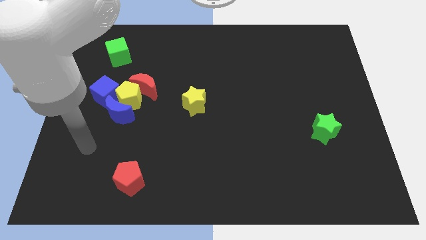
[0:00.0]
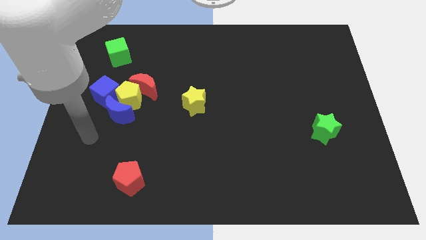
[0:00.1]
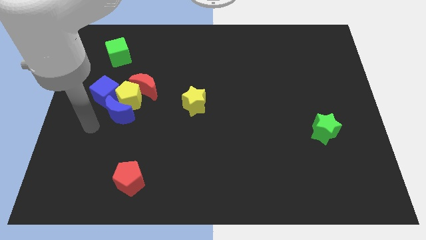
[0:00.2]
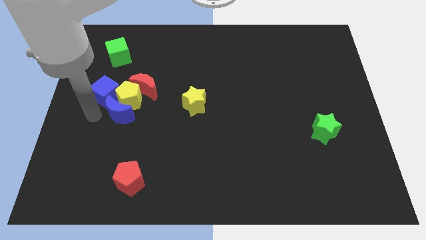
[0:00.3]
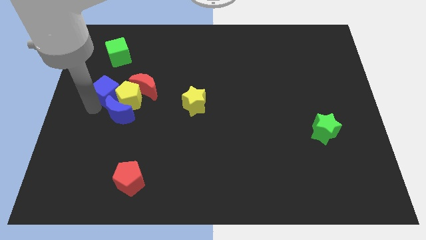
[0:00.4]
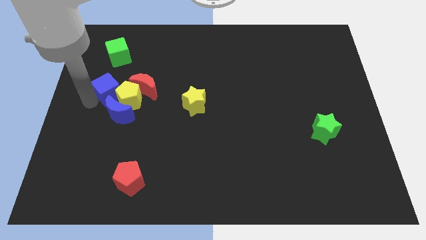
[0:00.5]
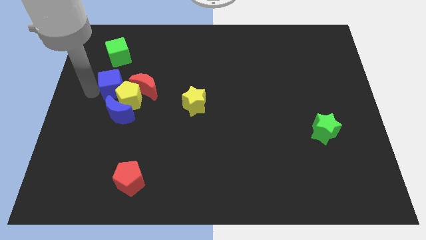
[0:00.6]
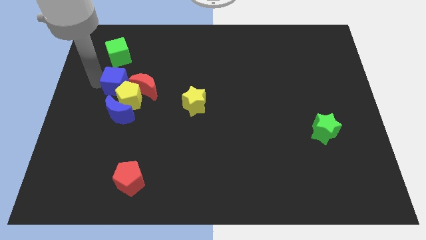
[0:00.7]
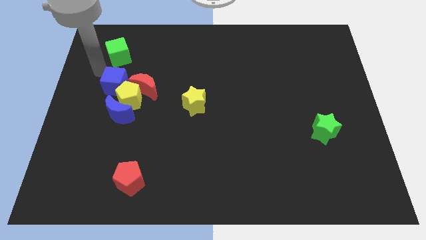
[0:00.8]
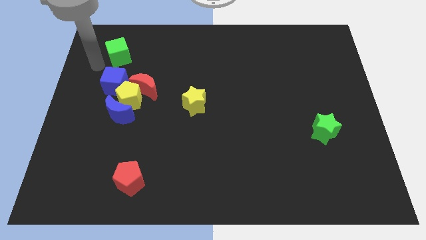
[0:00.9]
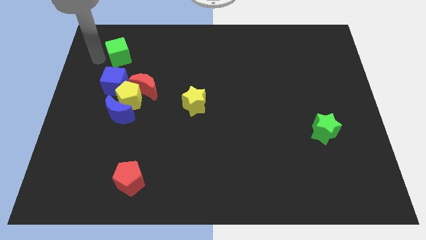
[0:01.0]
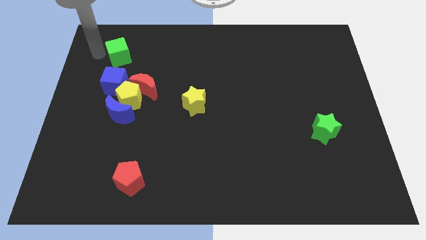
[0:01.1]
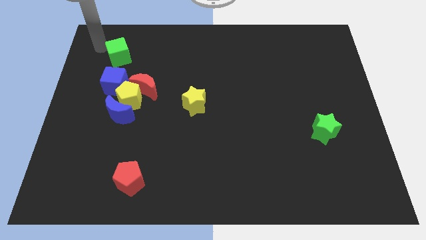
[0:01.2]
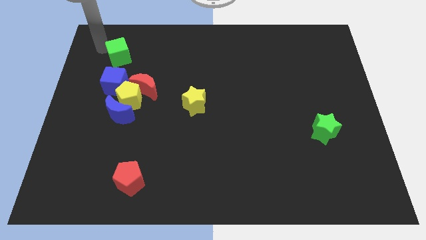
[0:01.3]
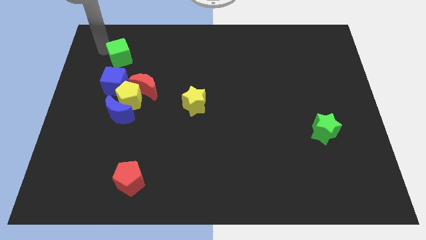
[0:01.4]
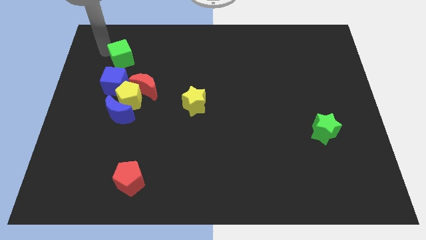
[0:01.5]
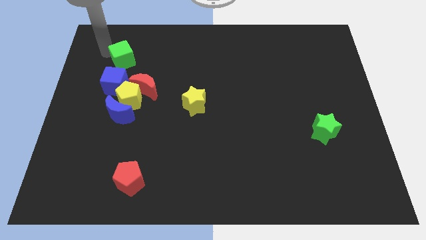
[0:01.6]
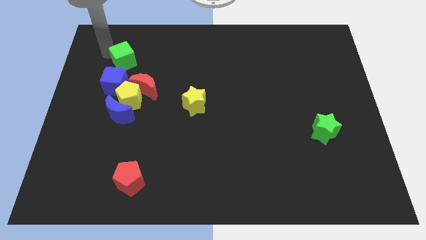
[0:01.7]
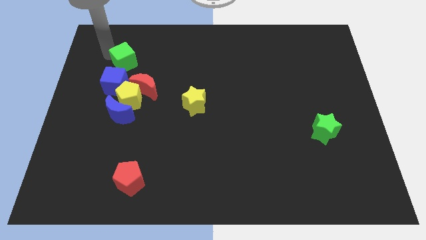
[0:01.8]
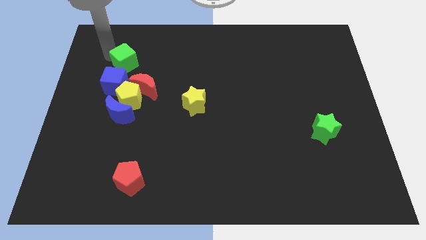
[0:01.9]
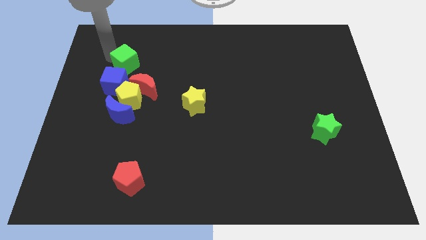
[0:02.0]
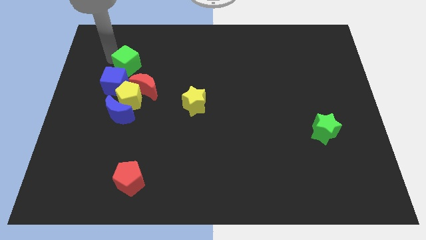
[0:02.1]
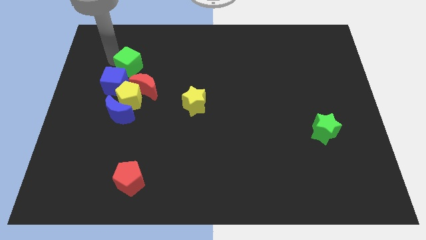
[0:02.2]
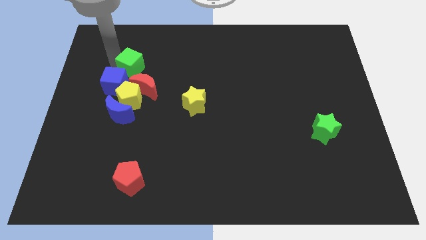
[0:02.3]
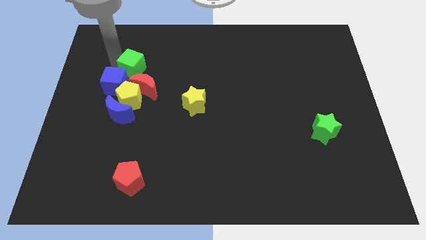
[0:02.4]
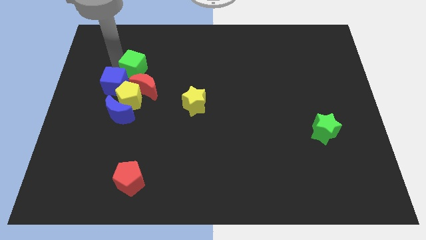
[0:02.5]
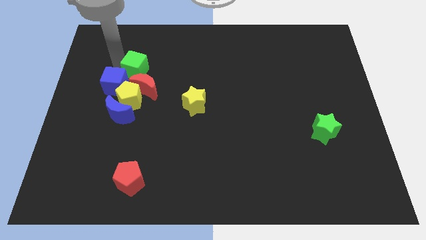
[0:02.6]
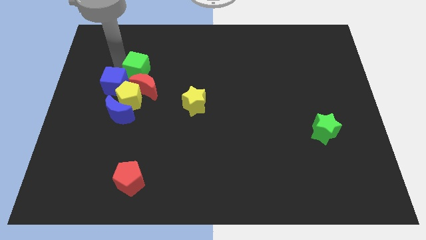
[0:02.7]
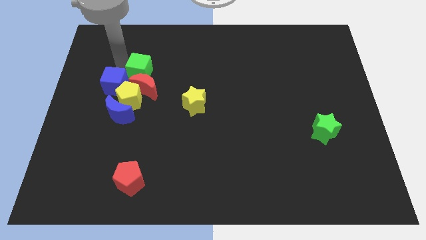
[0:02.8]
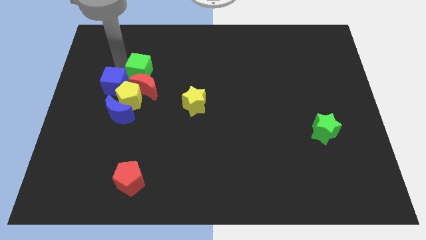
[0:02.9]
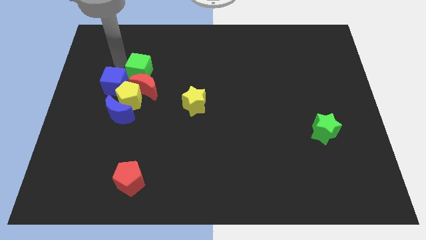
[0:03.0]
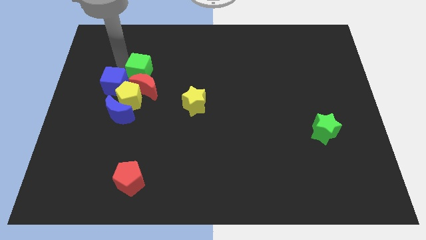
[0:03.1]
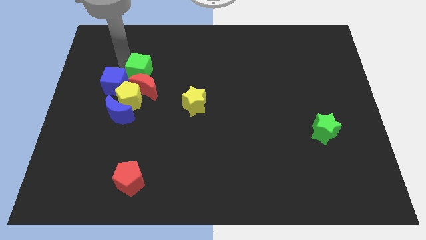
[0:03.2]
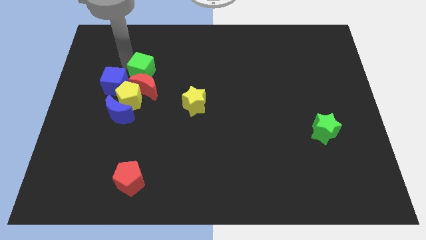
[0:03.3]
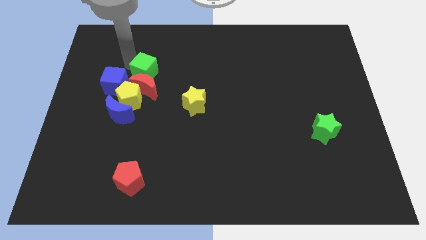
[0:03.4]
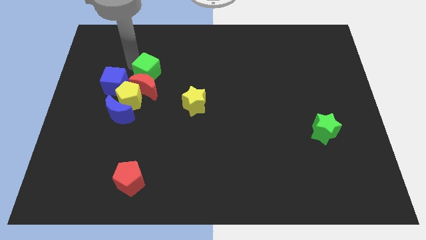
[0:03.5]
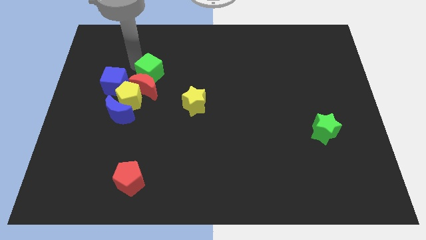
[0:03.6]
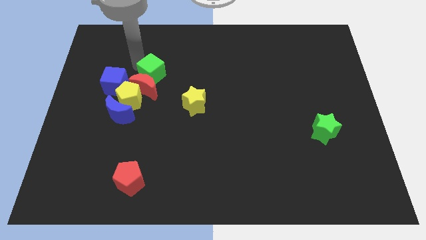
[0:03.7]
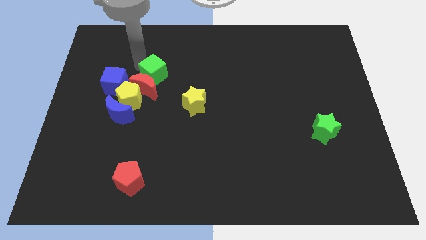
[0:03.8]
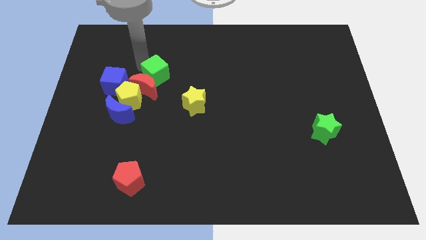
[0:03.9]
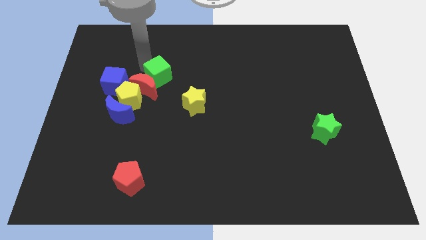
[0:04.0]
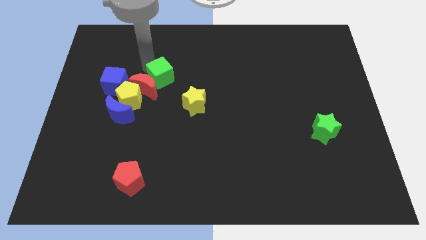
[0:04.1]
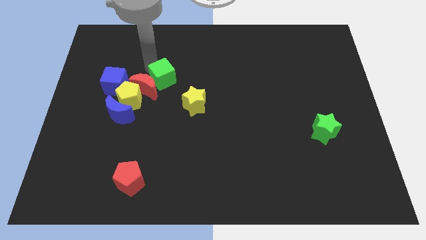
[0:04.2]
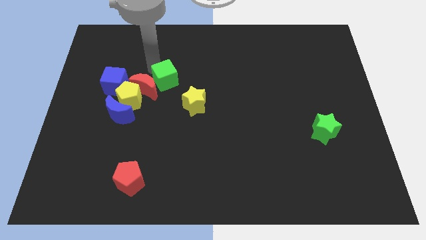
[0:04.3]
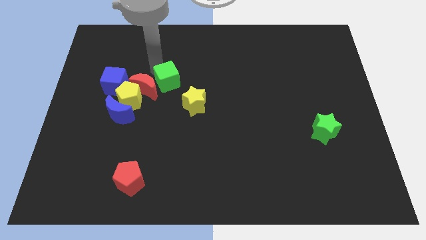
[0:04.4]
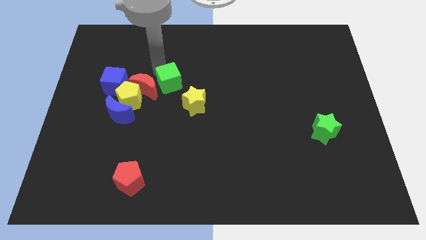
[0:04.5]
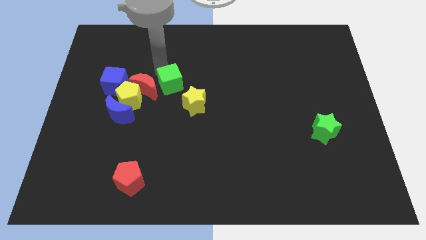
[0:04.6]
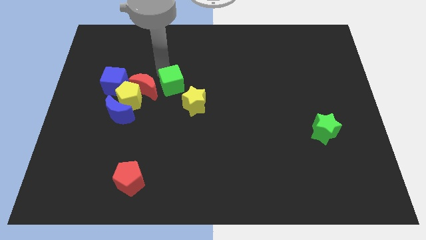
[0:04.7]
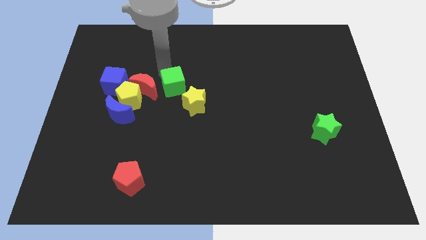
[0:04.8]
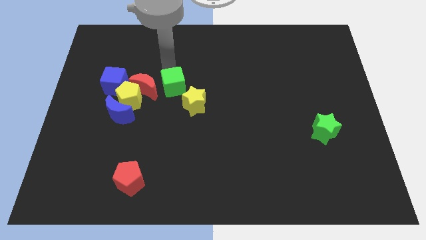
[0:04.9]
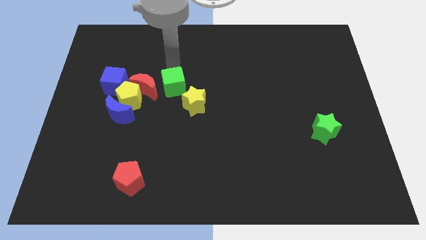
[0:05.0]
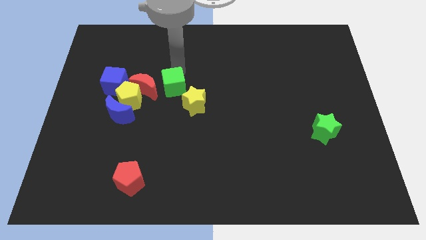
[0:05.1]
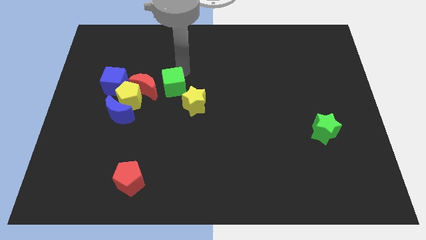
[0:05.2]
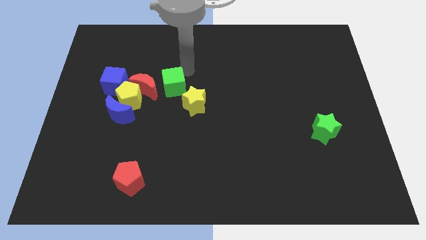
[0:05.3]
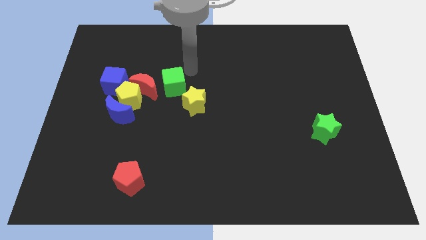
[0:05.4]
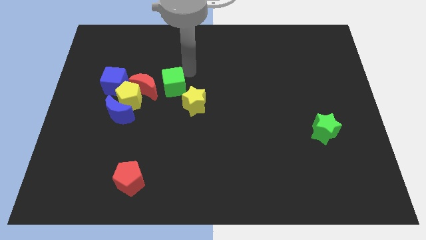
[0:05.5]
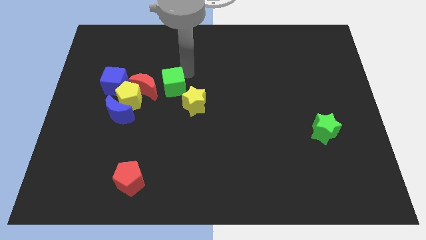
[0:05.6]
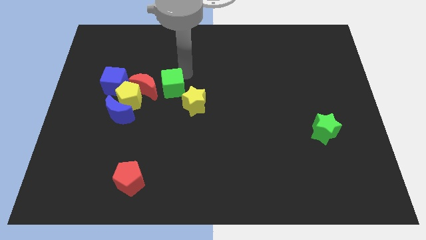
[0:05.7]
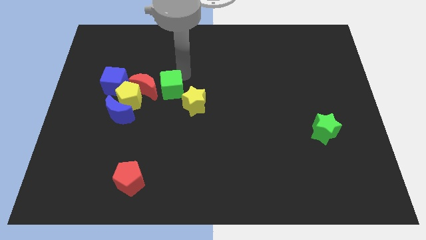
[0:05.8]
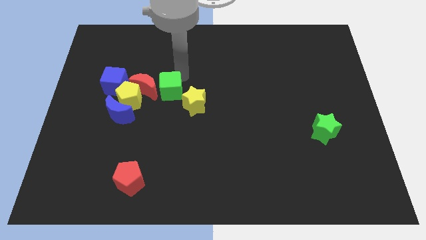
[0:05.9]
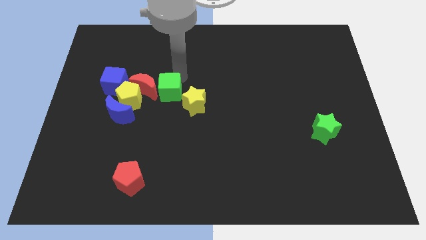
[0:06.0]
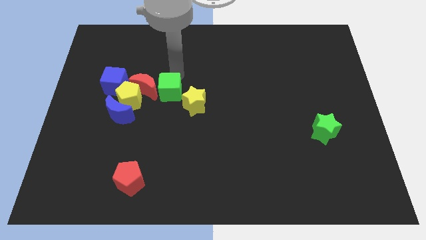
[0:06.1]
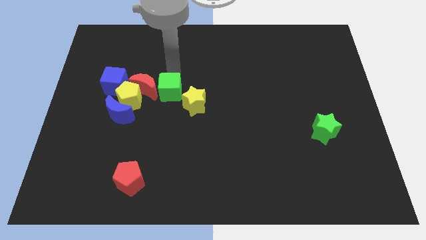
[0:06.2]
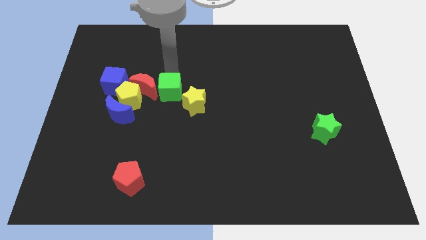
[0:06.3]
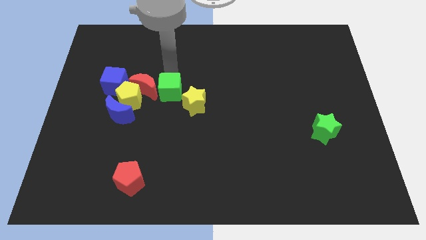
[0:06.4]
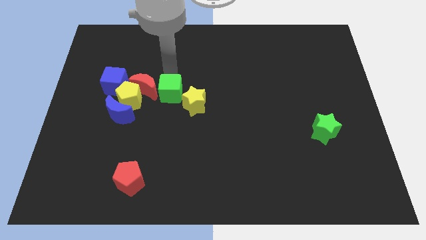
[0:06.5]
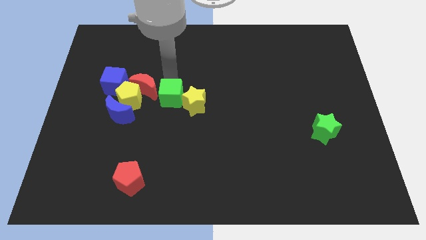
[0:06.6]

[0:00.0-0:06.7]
push the green cube downwards and to the right

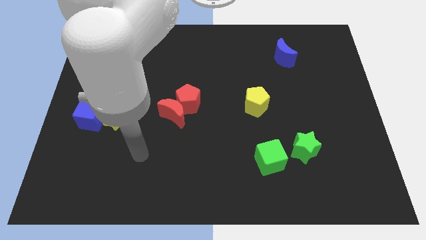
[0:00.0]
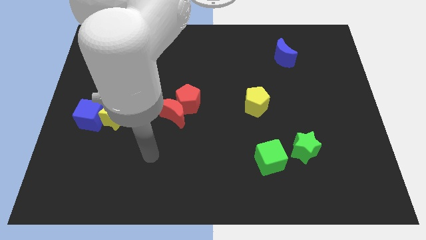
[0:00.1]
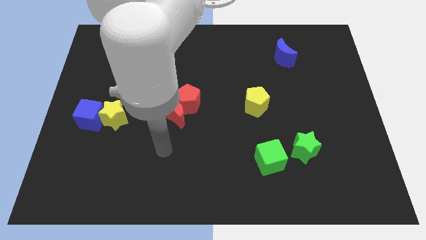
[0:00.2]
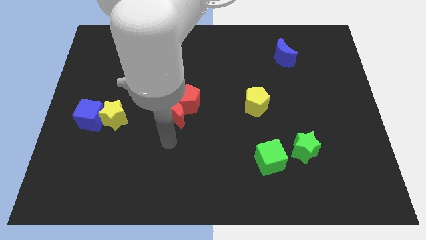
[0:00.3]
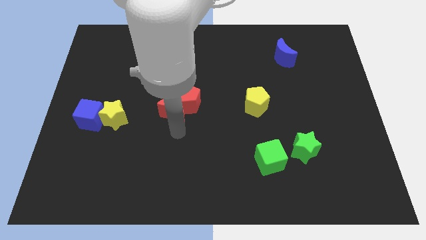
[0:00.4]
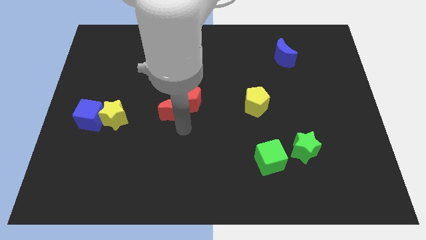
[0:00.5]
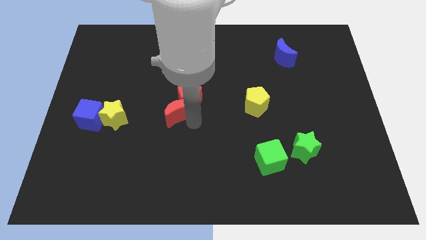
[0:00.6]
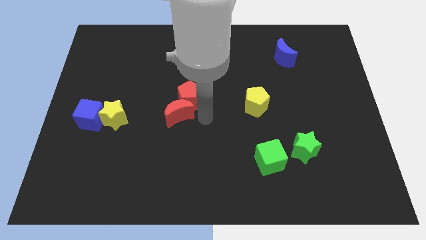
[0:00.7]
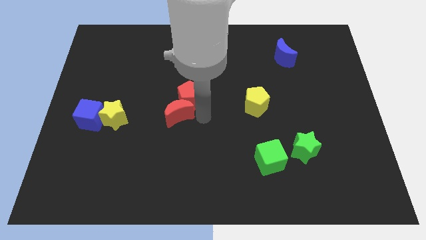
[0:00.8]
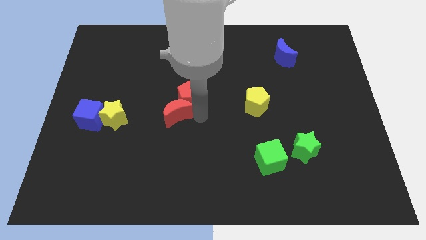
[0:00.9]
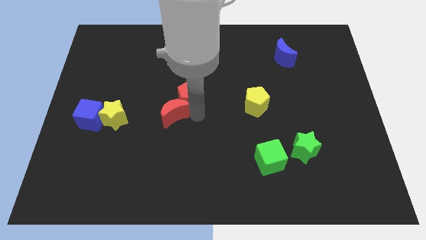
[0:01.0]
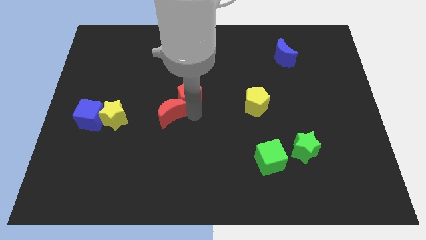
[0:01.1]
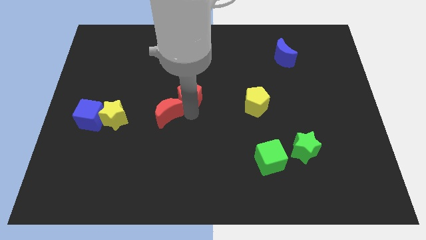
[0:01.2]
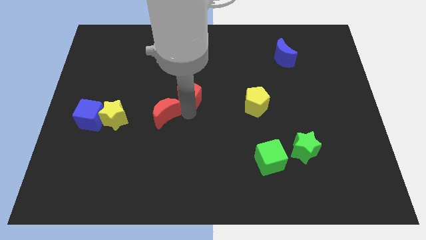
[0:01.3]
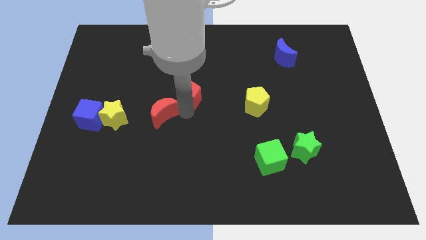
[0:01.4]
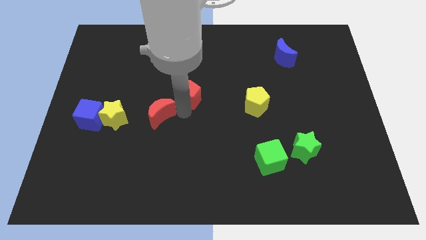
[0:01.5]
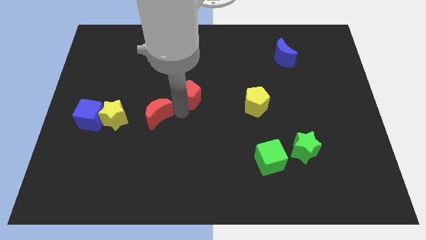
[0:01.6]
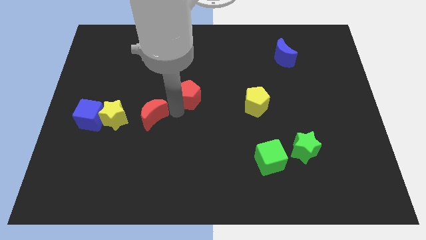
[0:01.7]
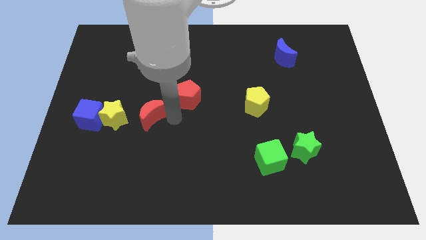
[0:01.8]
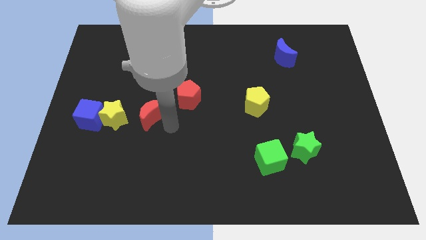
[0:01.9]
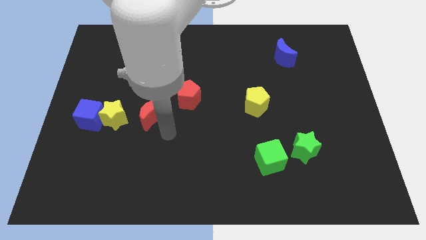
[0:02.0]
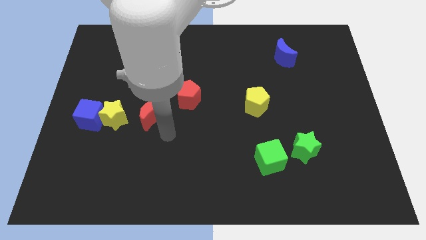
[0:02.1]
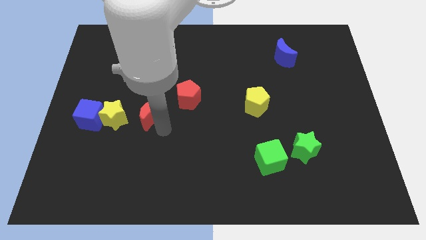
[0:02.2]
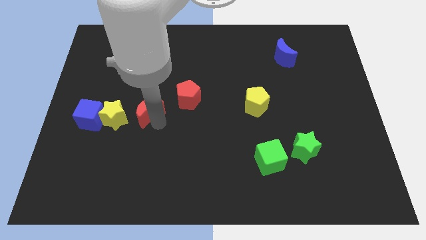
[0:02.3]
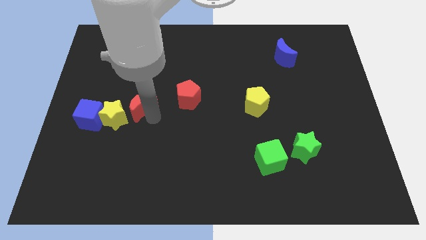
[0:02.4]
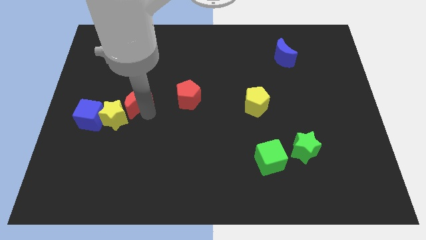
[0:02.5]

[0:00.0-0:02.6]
push the red moon somewhat upwards and left diagonally
